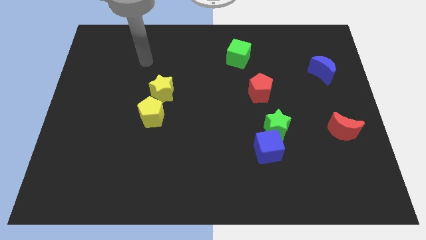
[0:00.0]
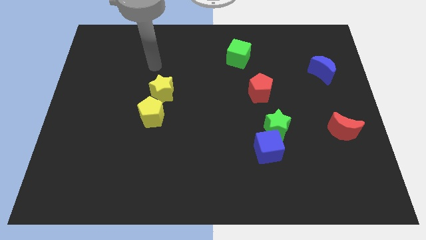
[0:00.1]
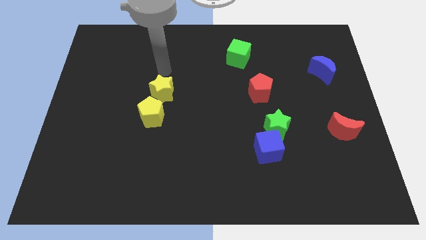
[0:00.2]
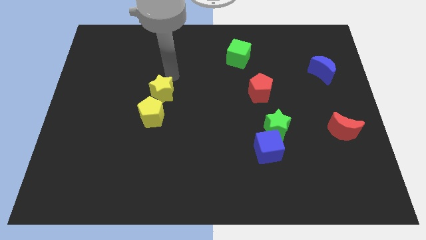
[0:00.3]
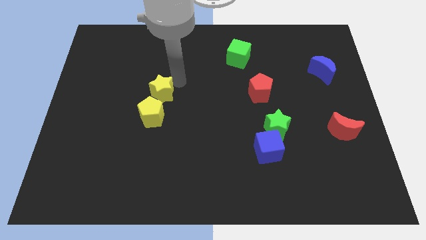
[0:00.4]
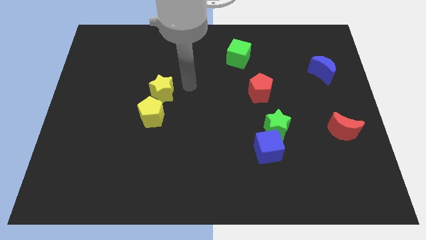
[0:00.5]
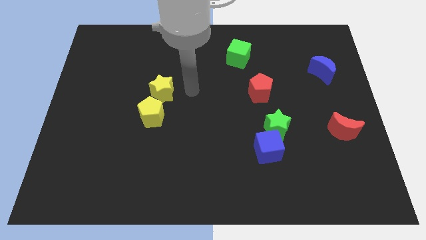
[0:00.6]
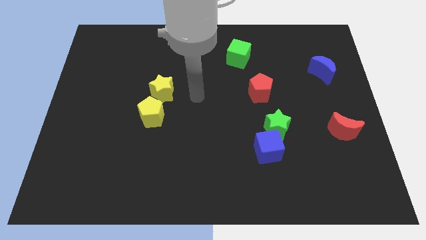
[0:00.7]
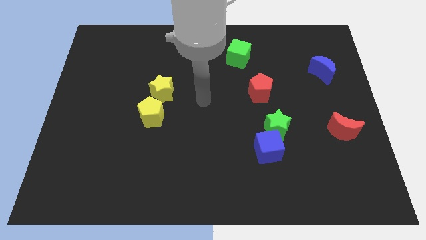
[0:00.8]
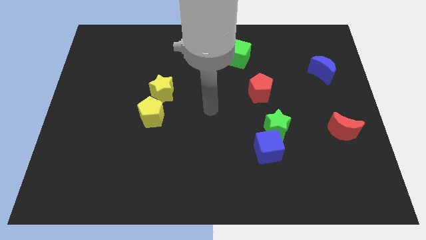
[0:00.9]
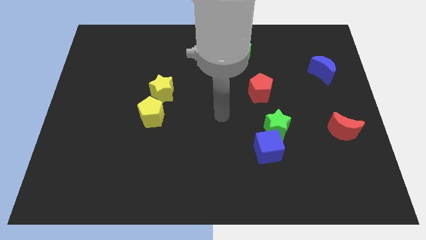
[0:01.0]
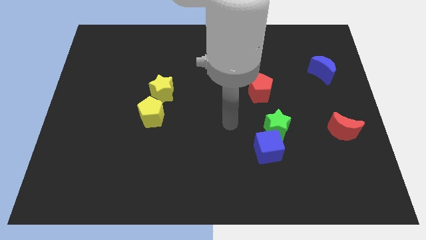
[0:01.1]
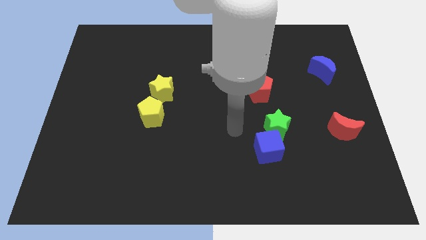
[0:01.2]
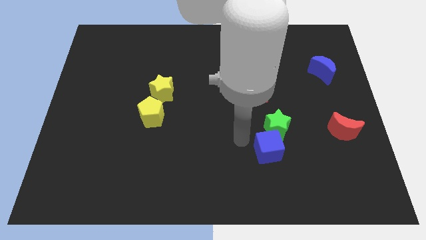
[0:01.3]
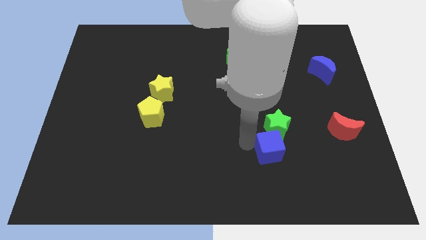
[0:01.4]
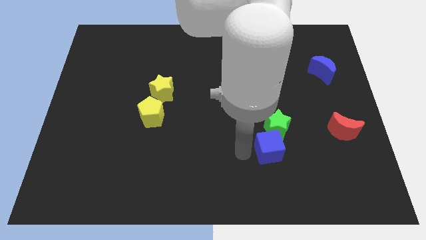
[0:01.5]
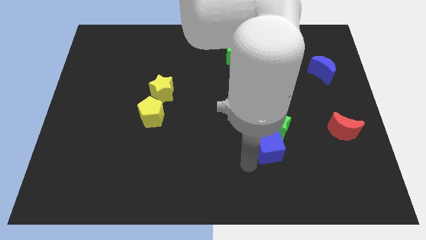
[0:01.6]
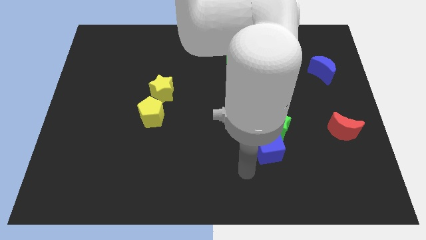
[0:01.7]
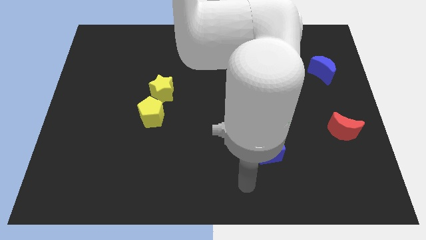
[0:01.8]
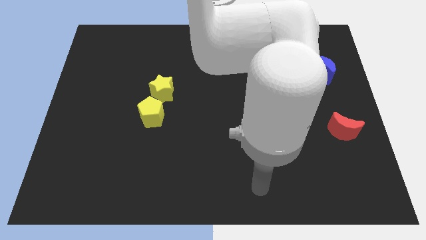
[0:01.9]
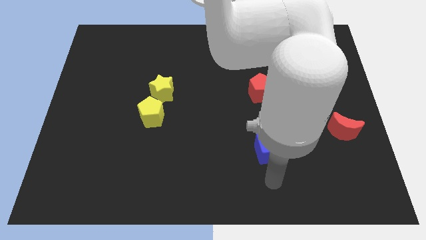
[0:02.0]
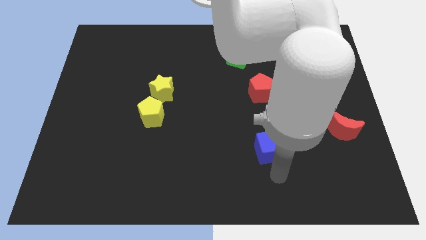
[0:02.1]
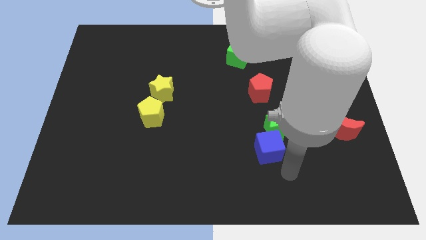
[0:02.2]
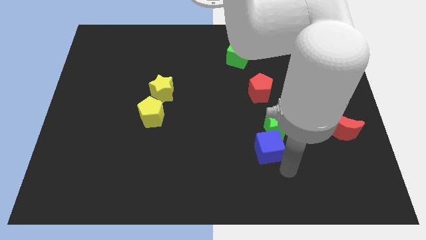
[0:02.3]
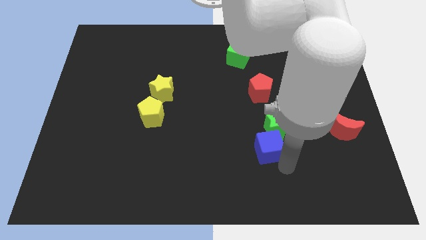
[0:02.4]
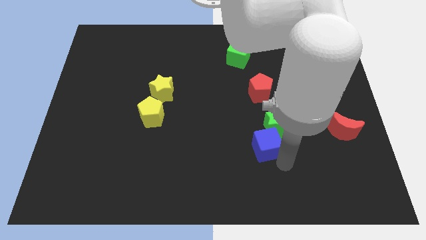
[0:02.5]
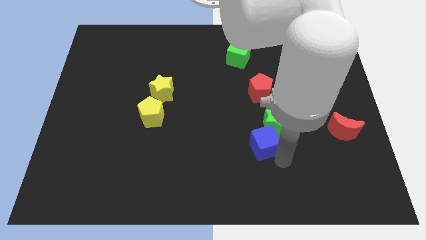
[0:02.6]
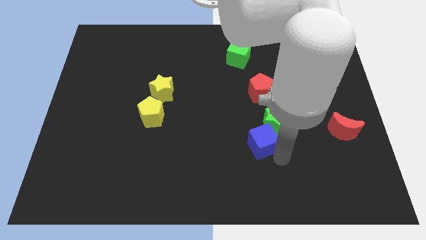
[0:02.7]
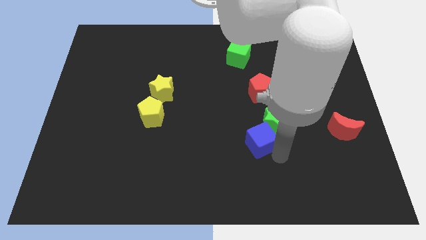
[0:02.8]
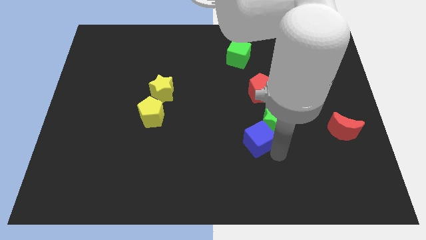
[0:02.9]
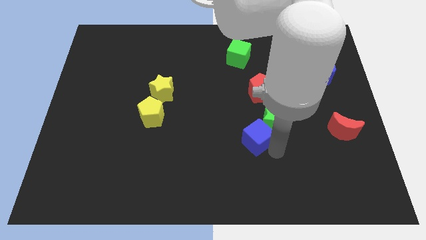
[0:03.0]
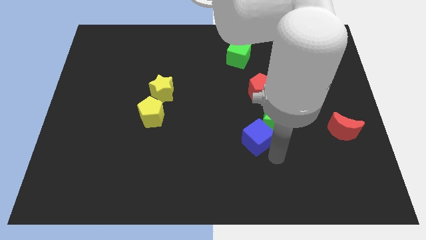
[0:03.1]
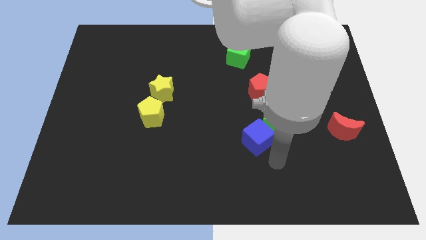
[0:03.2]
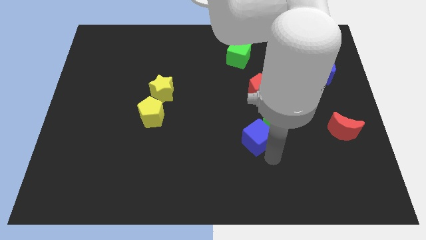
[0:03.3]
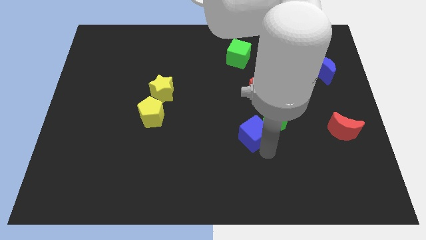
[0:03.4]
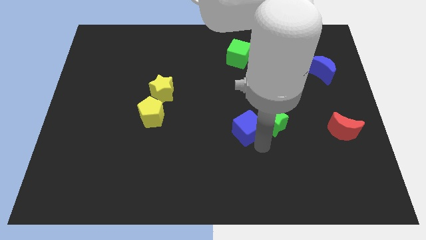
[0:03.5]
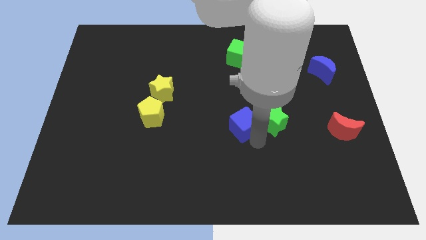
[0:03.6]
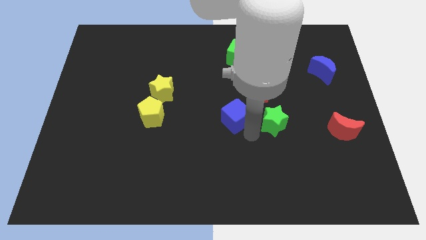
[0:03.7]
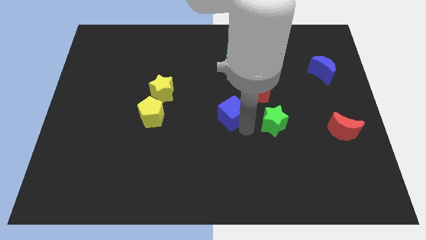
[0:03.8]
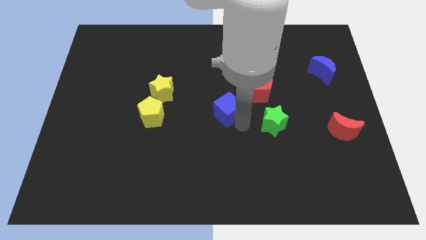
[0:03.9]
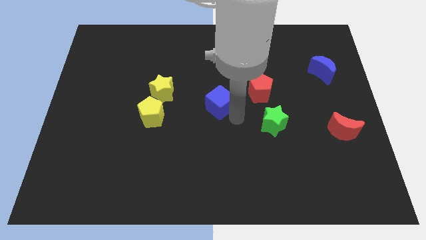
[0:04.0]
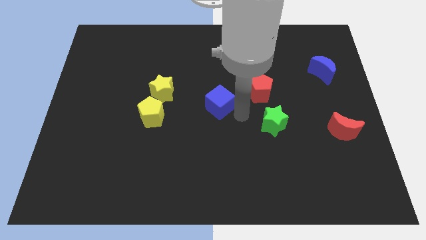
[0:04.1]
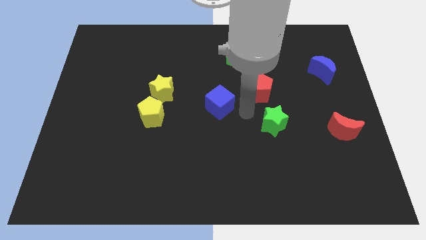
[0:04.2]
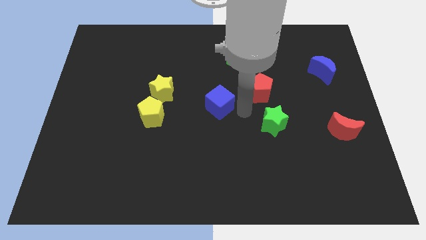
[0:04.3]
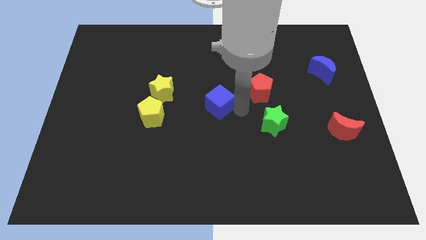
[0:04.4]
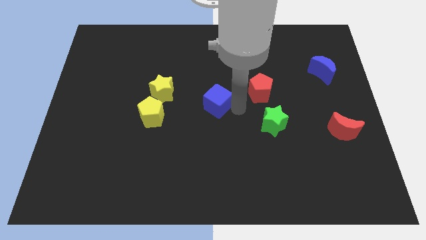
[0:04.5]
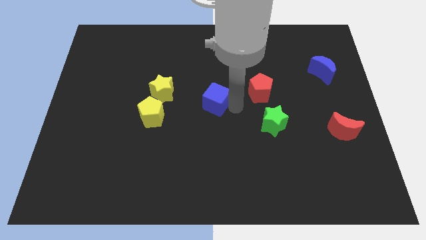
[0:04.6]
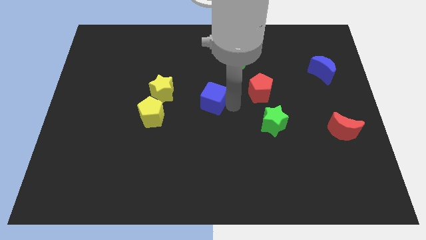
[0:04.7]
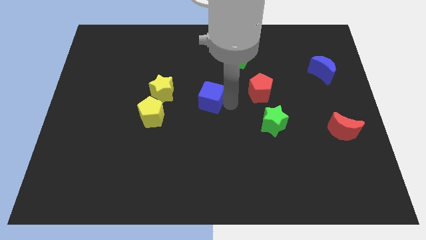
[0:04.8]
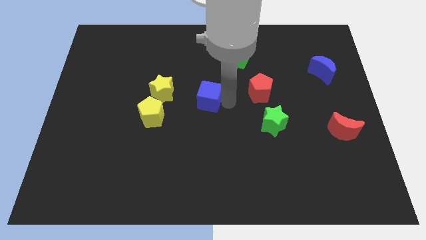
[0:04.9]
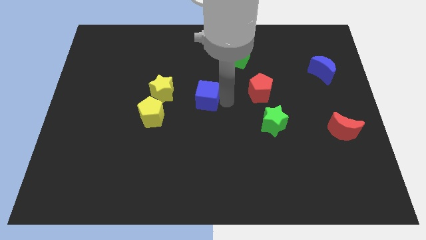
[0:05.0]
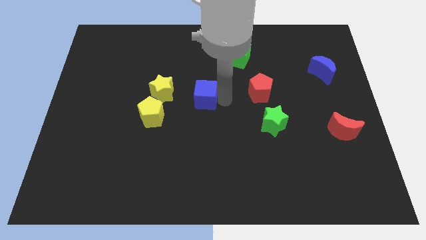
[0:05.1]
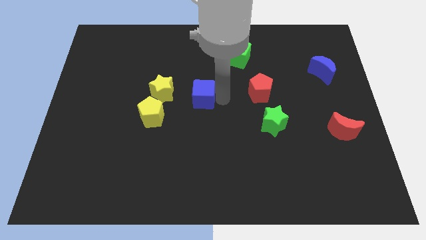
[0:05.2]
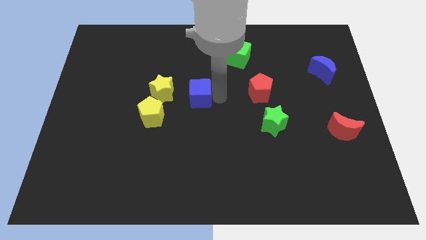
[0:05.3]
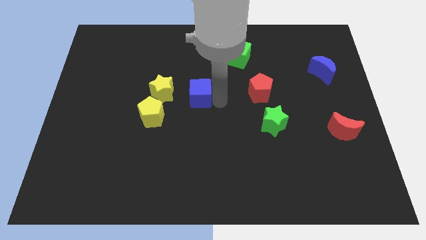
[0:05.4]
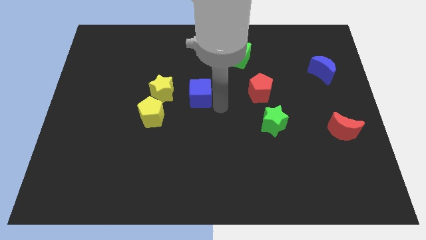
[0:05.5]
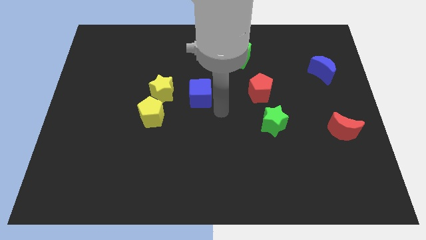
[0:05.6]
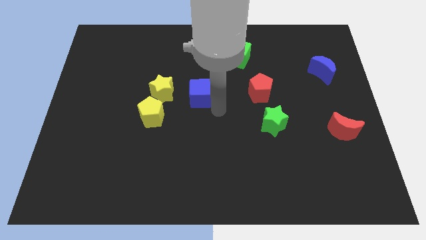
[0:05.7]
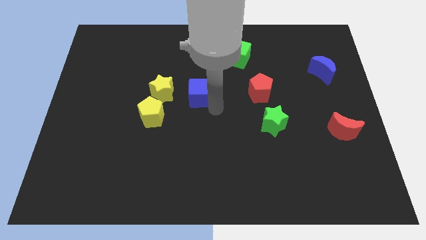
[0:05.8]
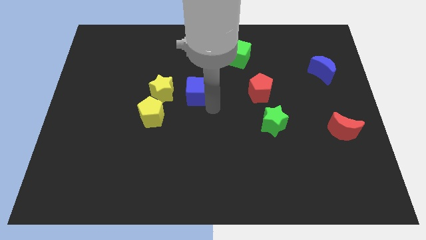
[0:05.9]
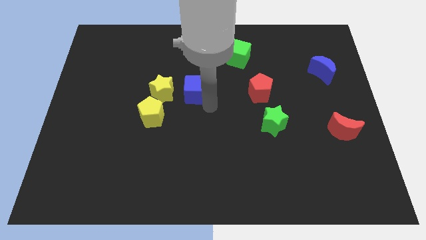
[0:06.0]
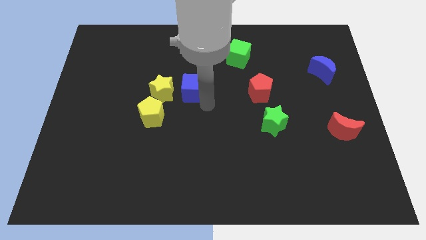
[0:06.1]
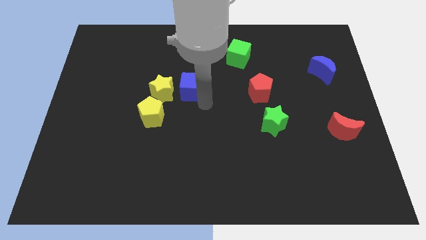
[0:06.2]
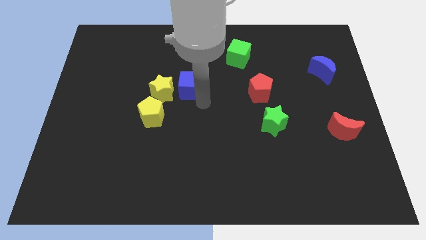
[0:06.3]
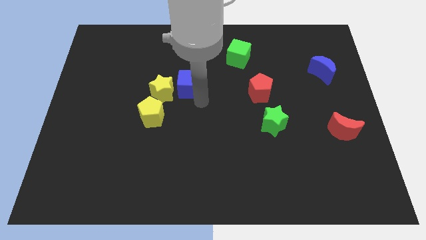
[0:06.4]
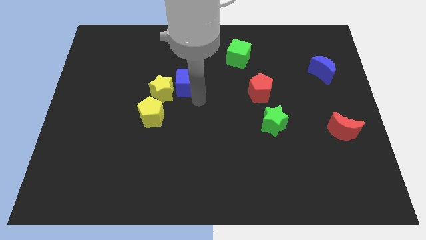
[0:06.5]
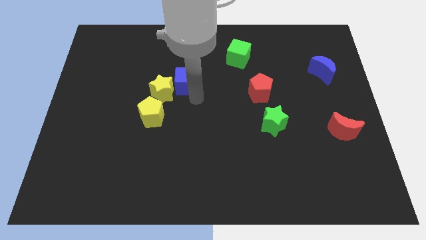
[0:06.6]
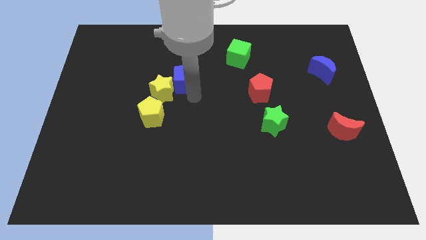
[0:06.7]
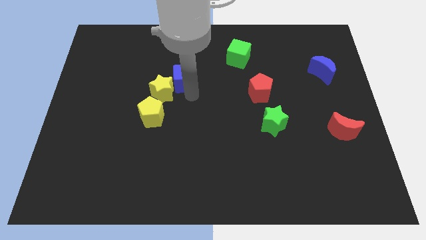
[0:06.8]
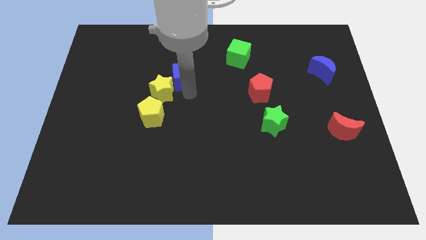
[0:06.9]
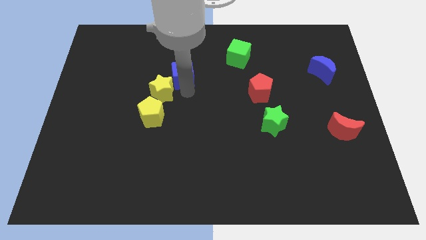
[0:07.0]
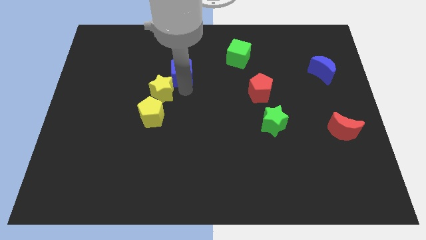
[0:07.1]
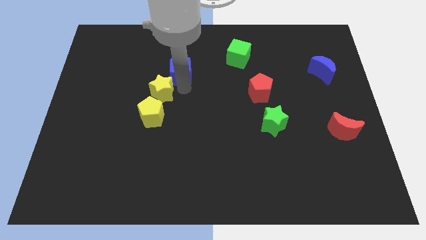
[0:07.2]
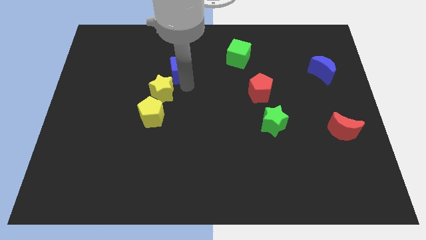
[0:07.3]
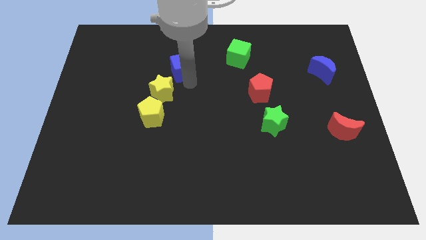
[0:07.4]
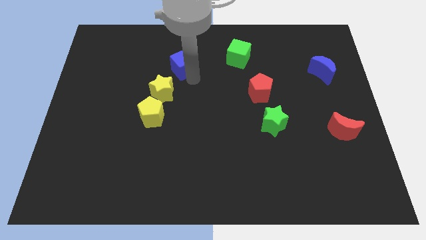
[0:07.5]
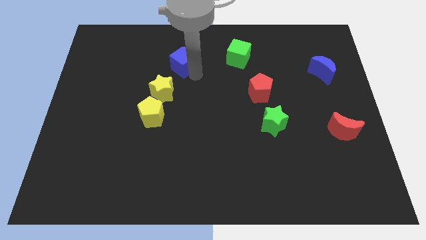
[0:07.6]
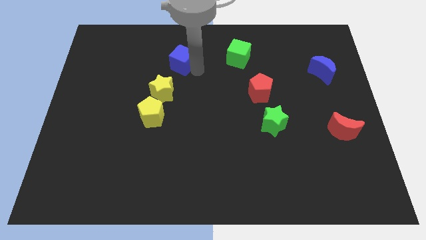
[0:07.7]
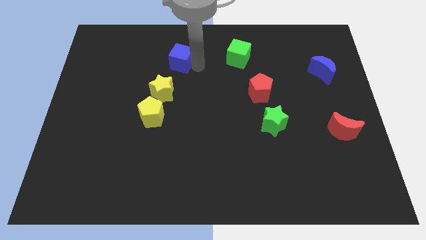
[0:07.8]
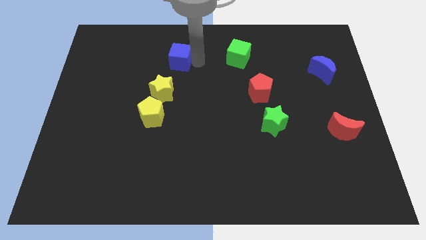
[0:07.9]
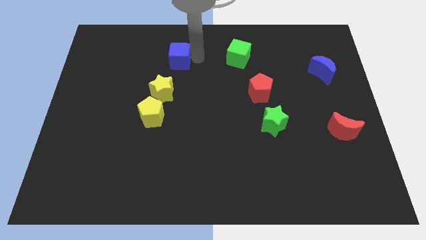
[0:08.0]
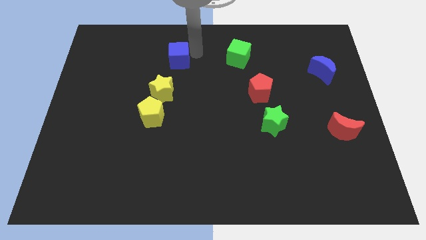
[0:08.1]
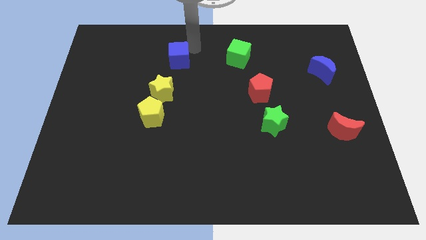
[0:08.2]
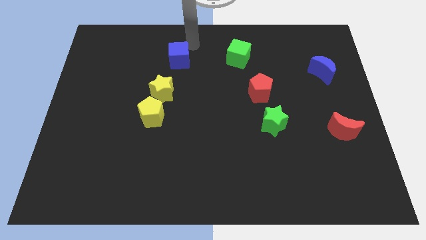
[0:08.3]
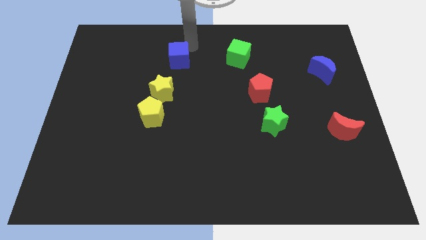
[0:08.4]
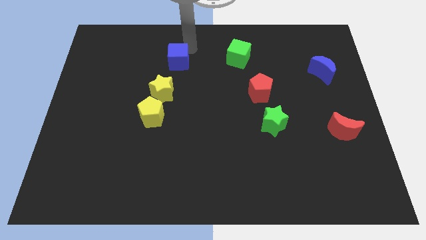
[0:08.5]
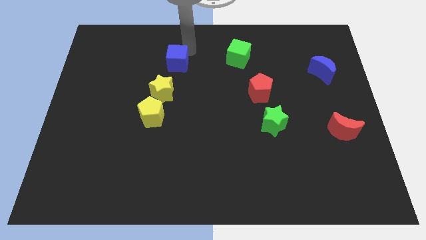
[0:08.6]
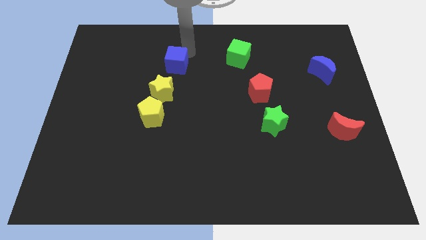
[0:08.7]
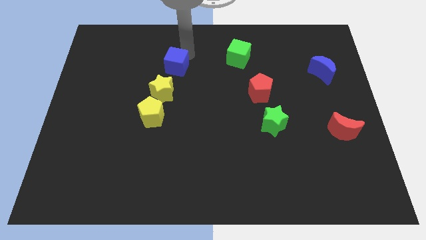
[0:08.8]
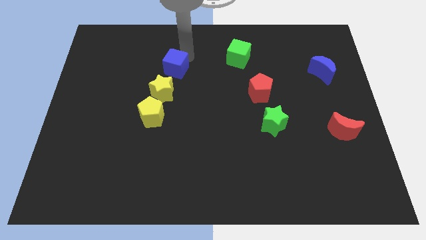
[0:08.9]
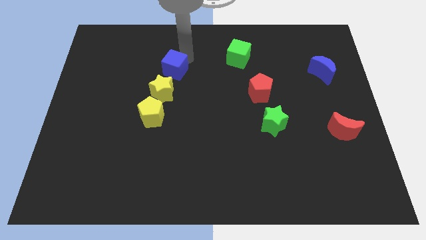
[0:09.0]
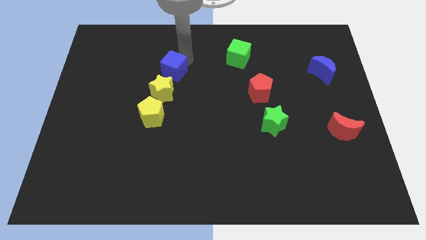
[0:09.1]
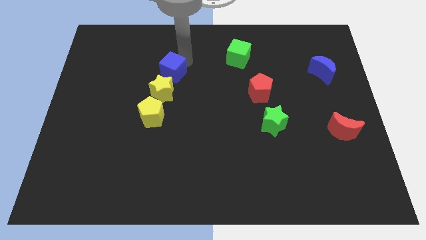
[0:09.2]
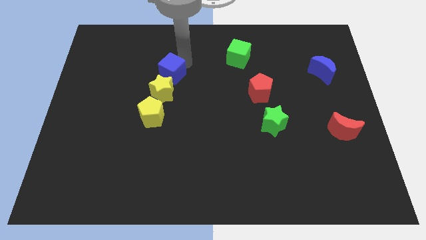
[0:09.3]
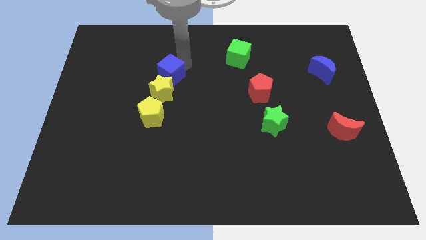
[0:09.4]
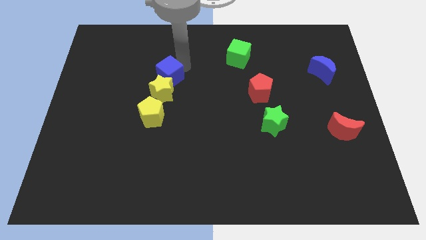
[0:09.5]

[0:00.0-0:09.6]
move the blue cube diagonally up and to the left of the yellow star
